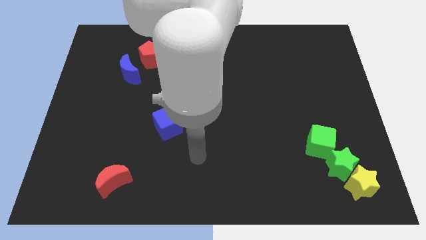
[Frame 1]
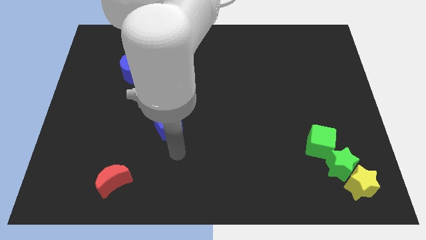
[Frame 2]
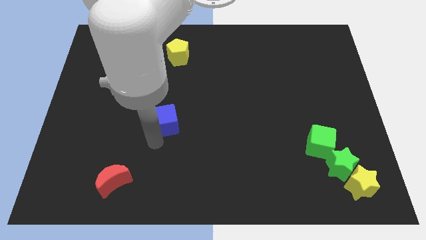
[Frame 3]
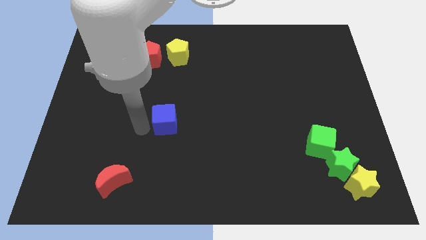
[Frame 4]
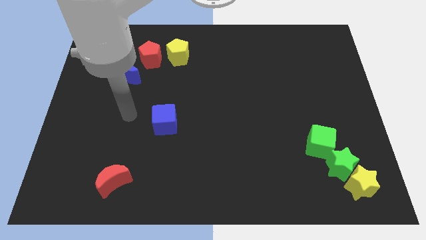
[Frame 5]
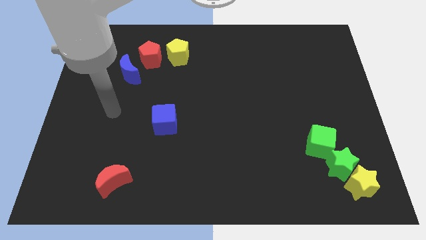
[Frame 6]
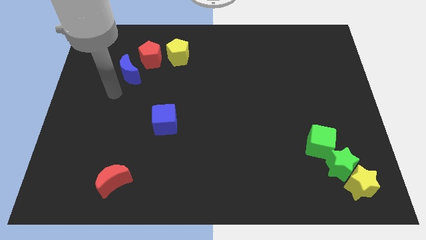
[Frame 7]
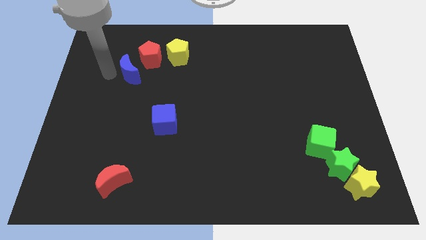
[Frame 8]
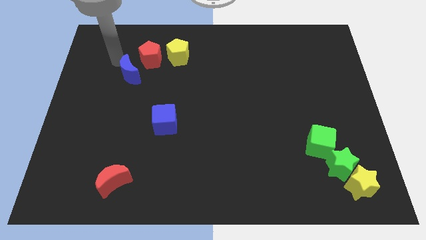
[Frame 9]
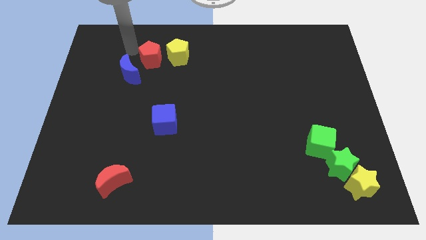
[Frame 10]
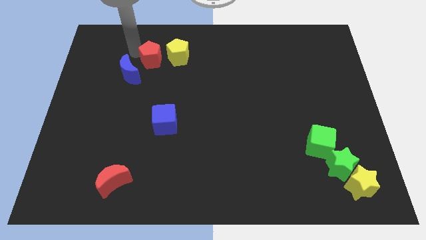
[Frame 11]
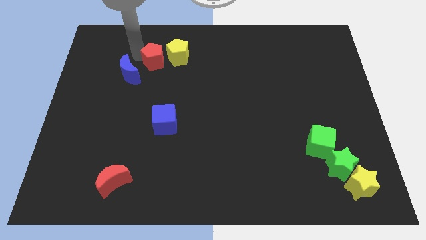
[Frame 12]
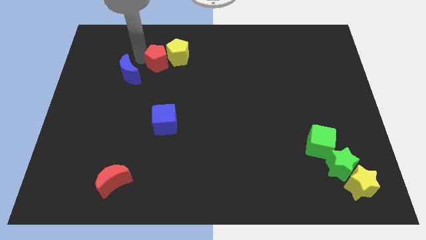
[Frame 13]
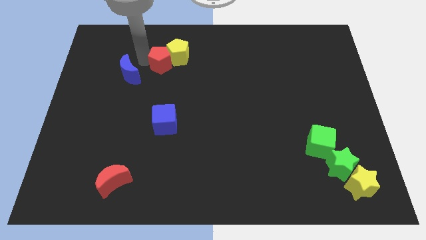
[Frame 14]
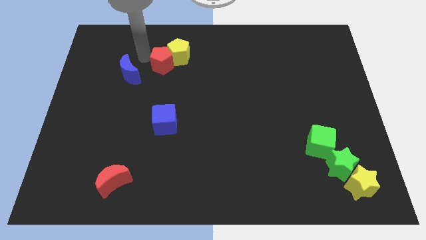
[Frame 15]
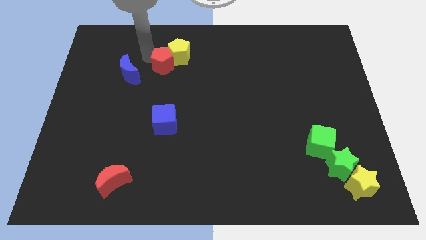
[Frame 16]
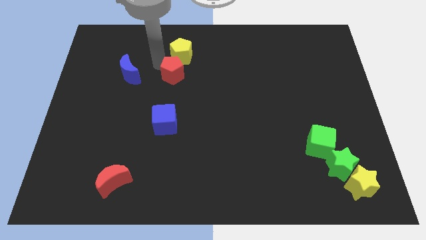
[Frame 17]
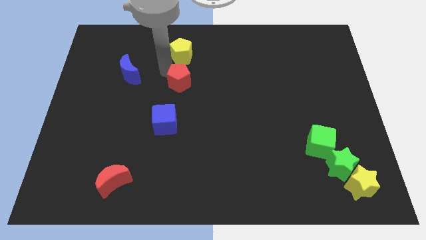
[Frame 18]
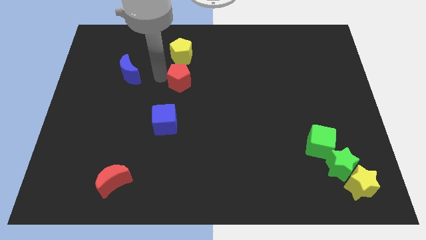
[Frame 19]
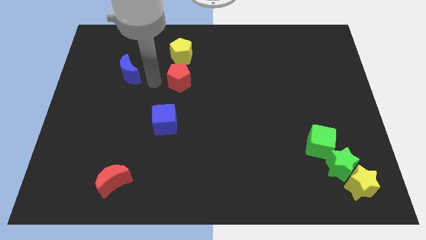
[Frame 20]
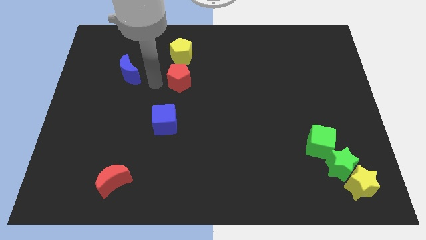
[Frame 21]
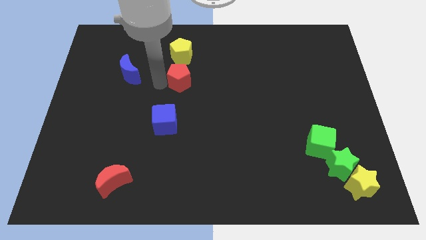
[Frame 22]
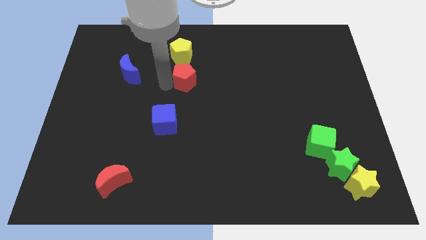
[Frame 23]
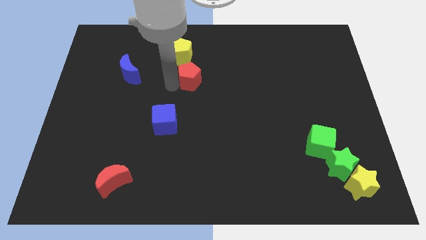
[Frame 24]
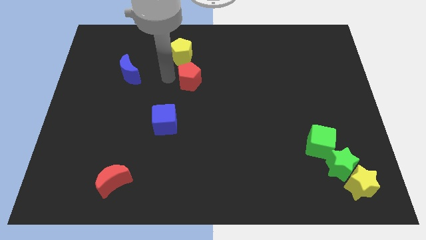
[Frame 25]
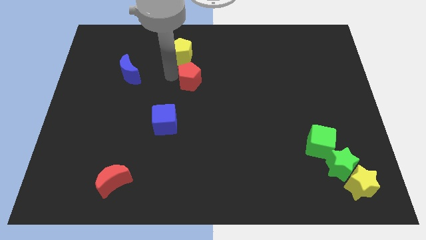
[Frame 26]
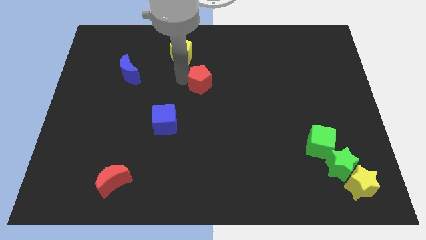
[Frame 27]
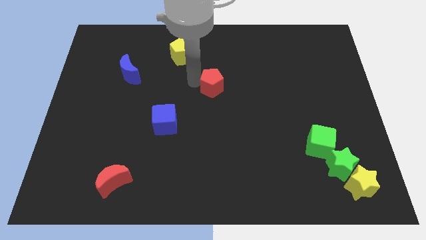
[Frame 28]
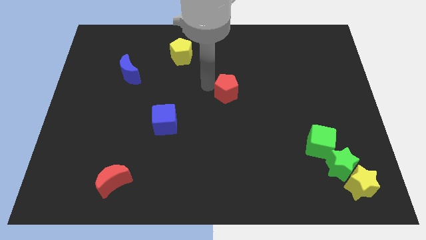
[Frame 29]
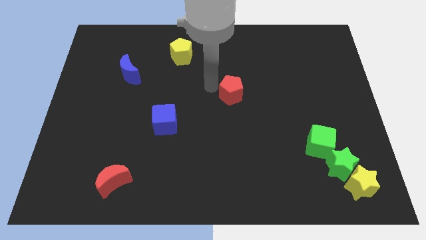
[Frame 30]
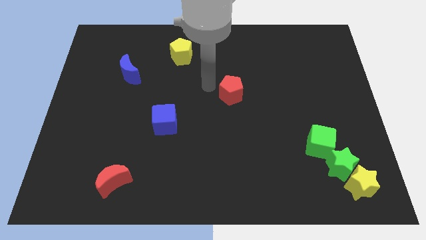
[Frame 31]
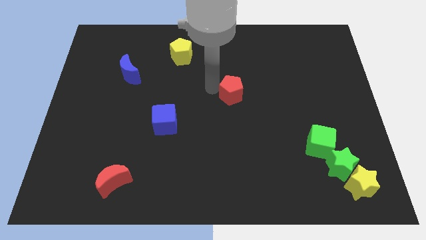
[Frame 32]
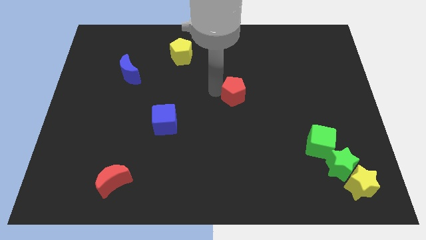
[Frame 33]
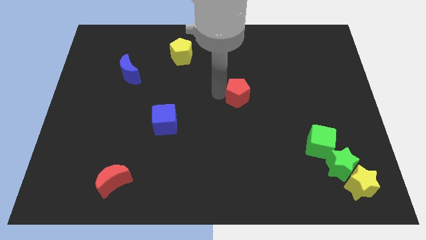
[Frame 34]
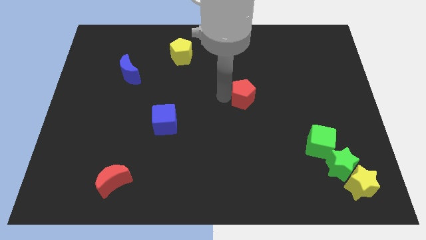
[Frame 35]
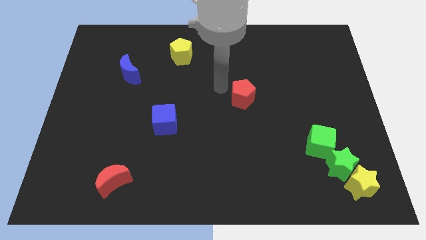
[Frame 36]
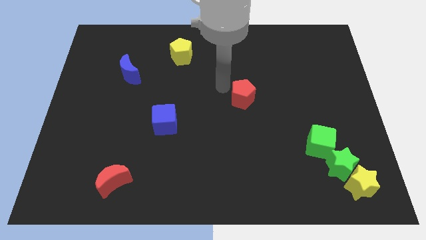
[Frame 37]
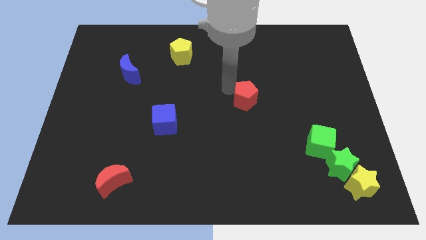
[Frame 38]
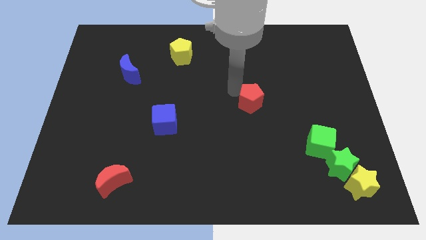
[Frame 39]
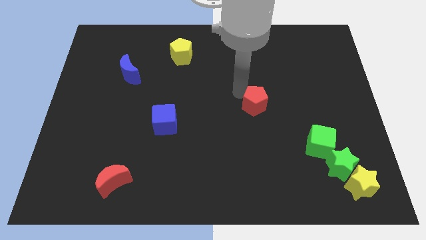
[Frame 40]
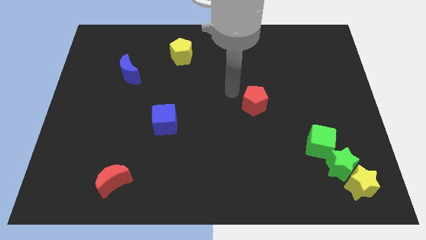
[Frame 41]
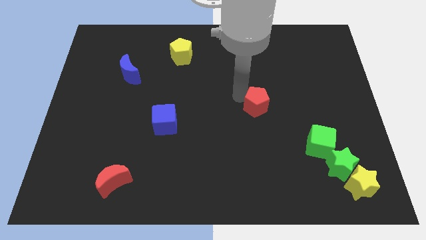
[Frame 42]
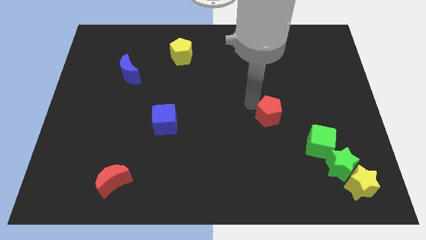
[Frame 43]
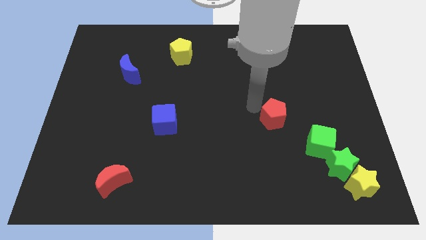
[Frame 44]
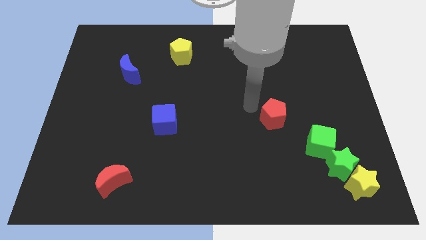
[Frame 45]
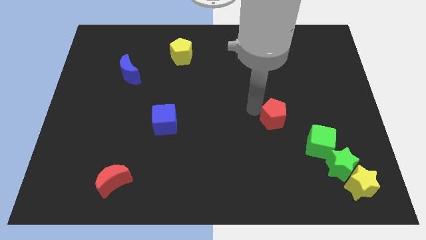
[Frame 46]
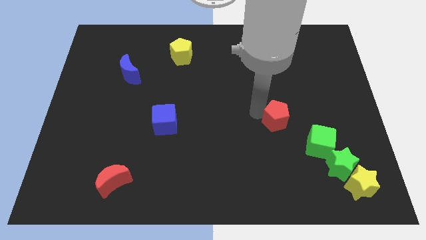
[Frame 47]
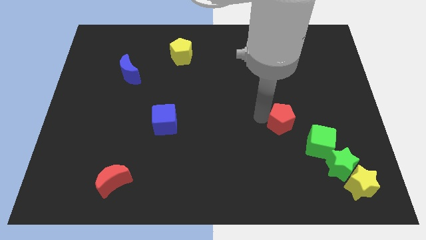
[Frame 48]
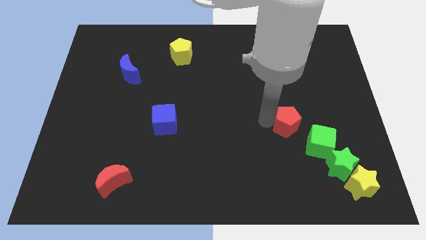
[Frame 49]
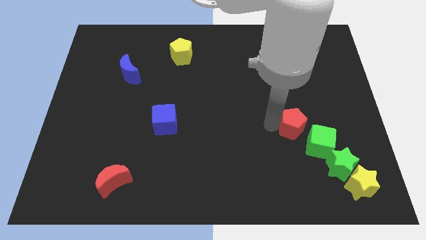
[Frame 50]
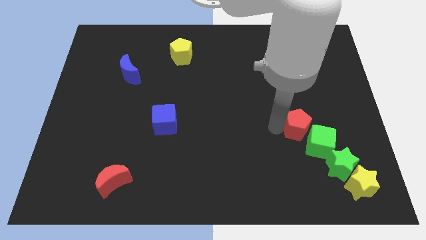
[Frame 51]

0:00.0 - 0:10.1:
move the red pentagon to the green cube

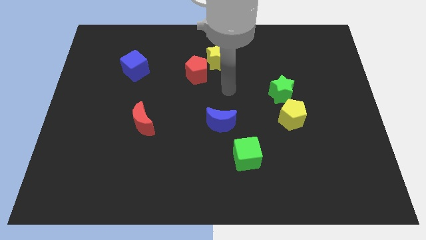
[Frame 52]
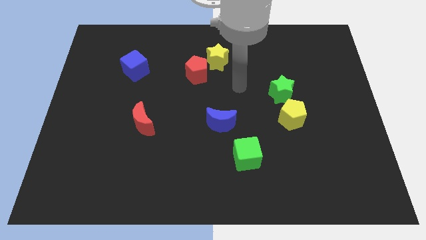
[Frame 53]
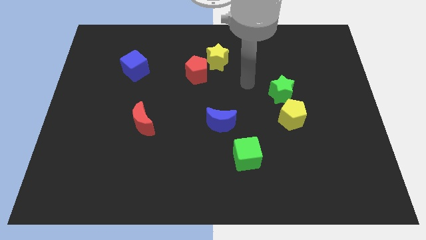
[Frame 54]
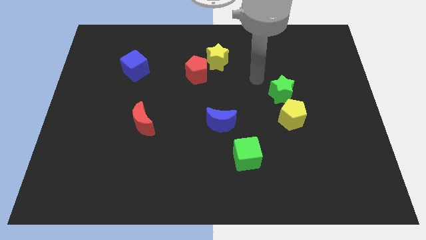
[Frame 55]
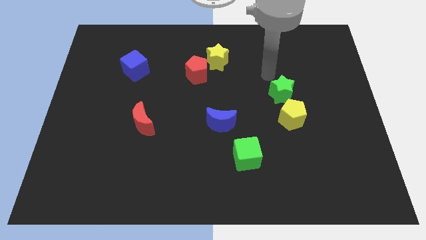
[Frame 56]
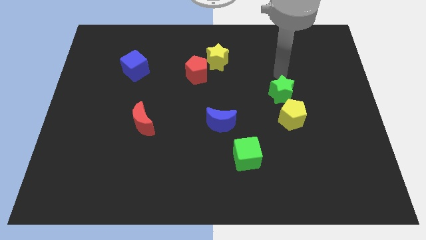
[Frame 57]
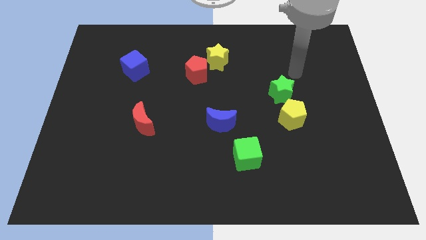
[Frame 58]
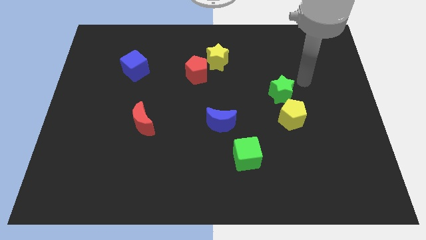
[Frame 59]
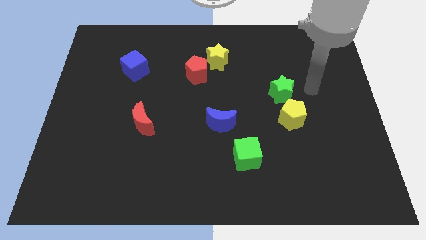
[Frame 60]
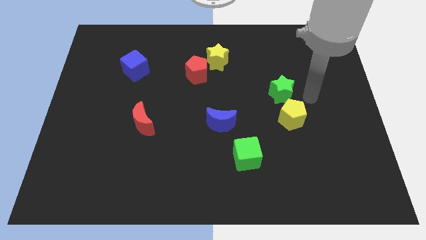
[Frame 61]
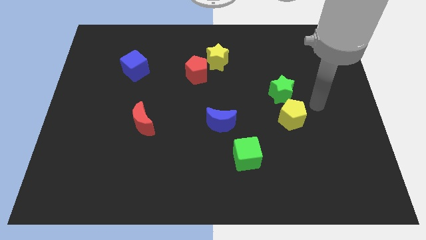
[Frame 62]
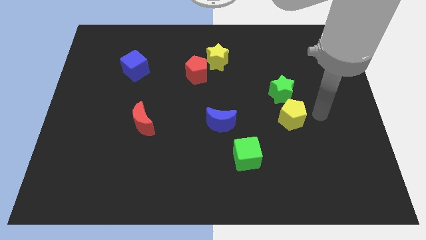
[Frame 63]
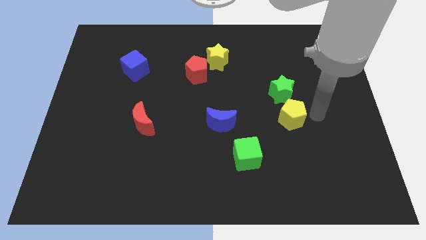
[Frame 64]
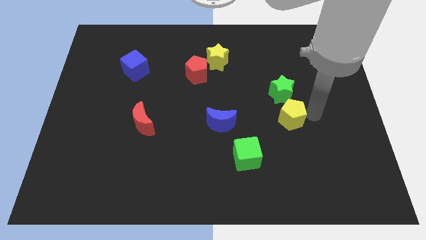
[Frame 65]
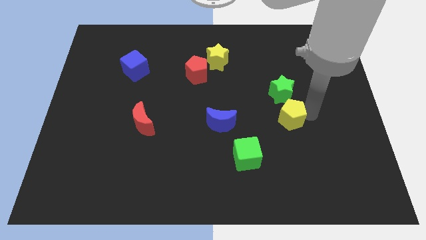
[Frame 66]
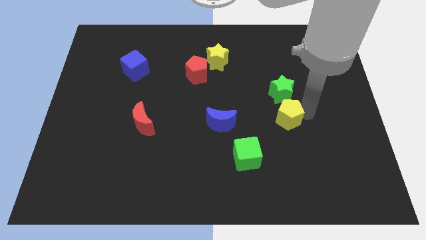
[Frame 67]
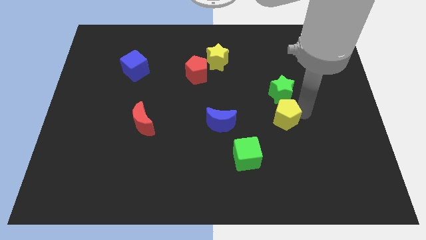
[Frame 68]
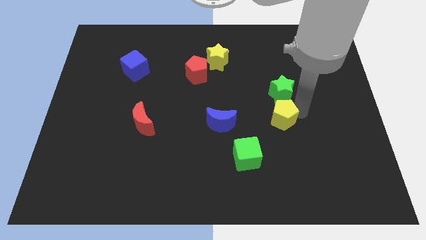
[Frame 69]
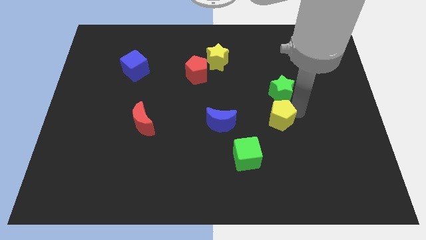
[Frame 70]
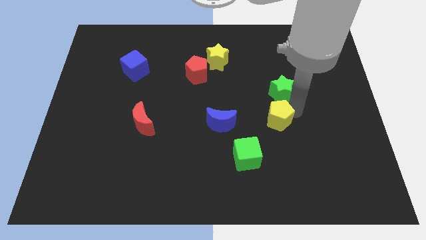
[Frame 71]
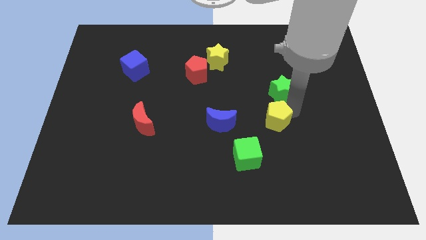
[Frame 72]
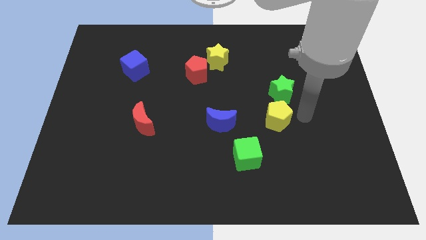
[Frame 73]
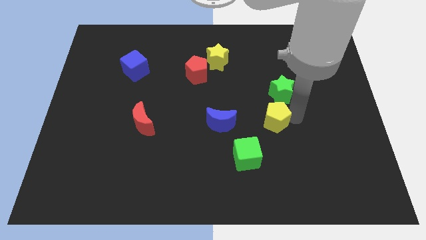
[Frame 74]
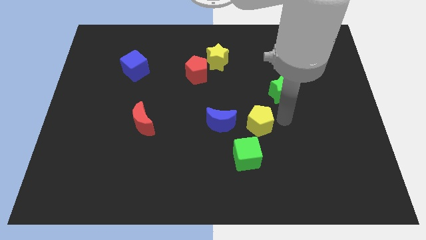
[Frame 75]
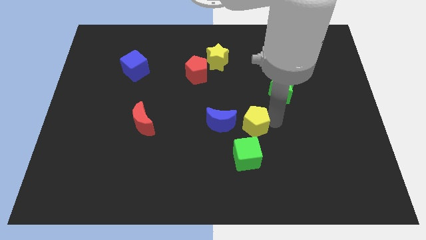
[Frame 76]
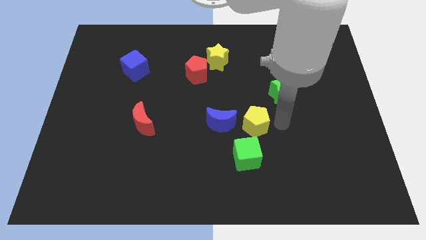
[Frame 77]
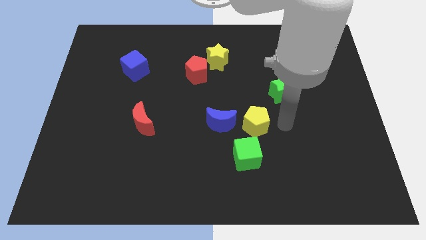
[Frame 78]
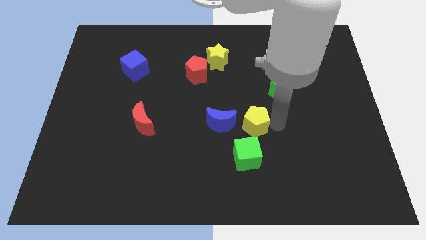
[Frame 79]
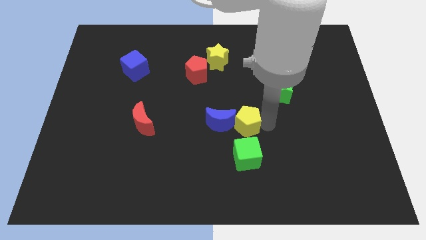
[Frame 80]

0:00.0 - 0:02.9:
push the yellow pentagon next to the blue moon
